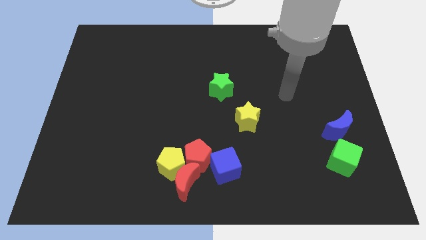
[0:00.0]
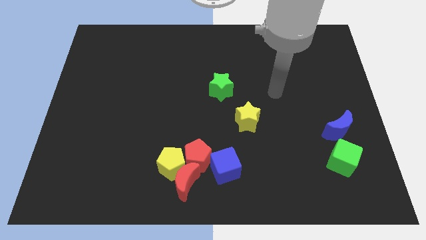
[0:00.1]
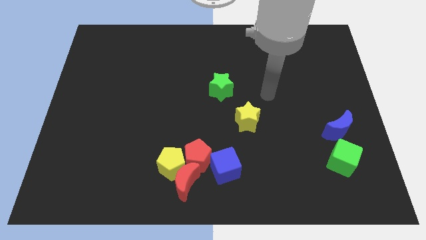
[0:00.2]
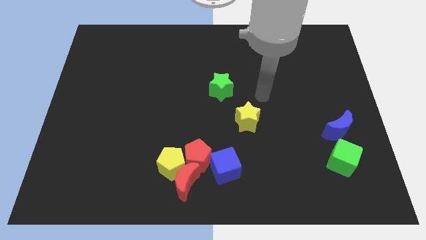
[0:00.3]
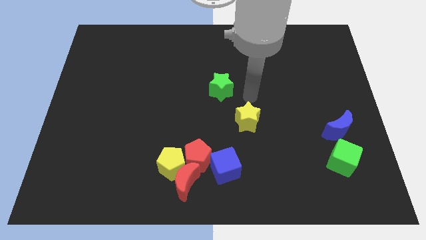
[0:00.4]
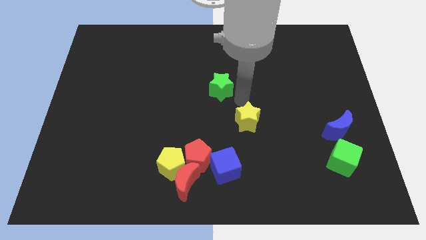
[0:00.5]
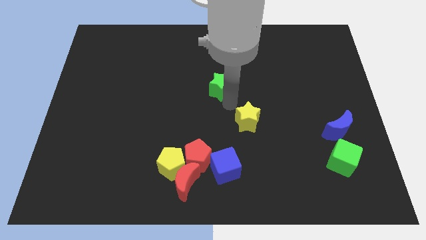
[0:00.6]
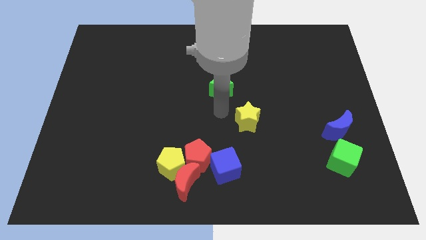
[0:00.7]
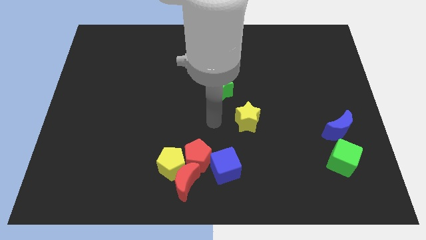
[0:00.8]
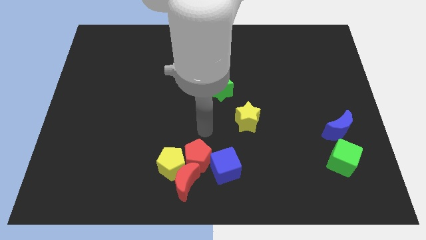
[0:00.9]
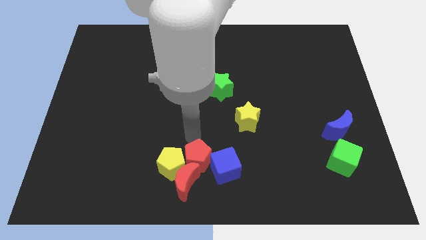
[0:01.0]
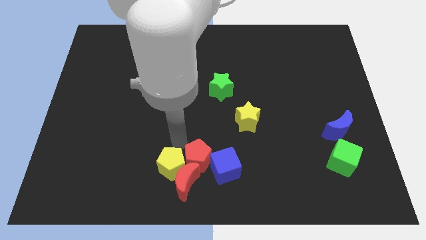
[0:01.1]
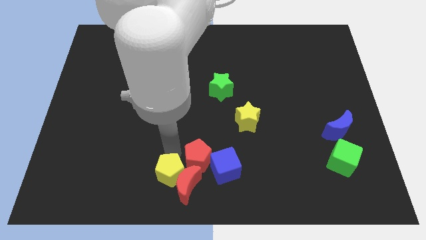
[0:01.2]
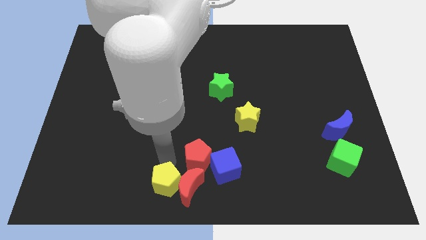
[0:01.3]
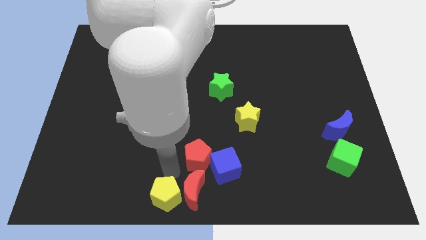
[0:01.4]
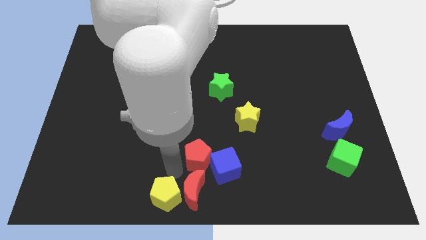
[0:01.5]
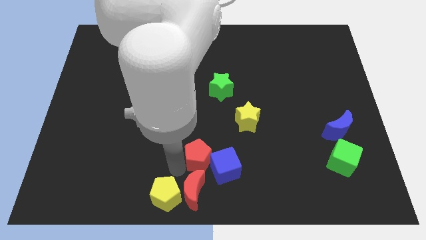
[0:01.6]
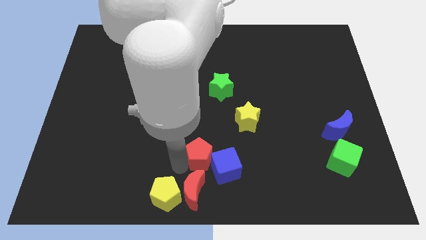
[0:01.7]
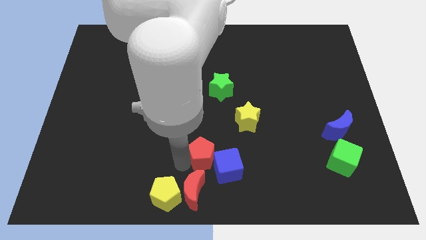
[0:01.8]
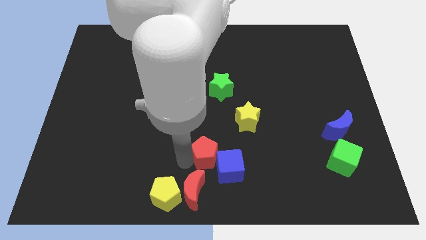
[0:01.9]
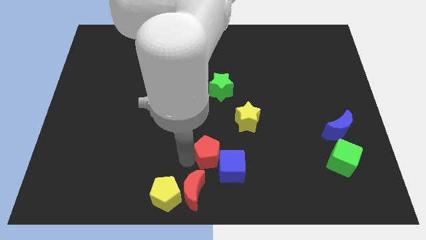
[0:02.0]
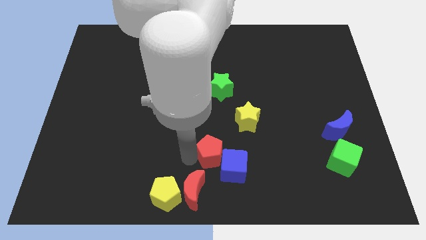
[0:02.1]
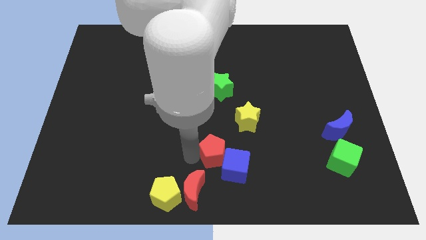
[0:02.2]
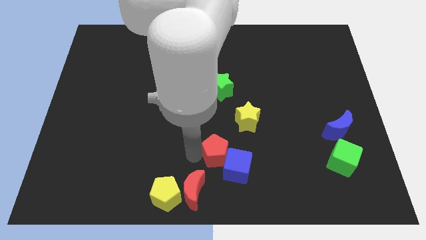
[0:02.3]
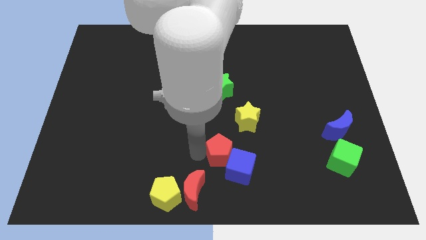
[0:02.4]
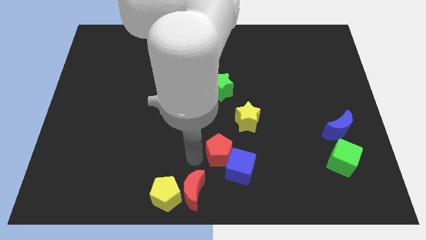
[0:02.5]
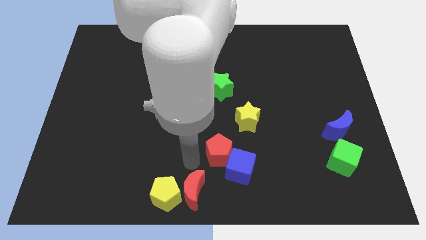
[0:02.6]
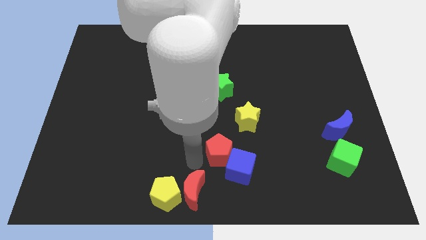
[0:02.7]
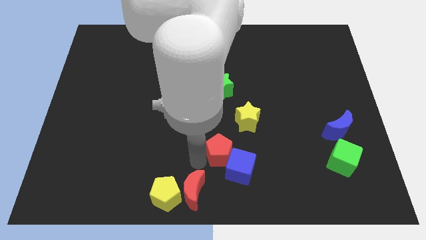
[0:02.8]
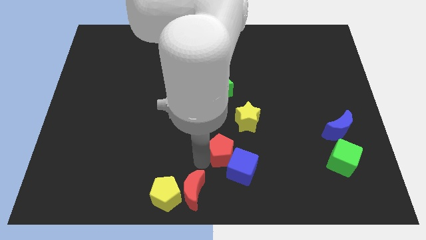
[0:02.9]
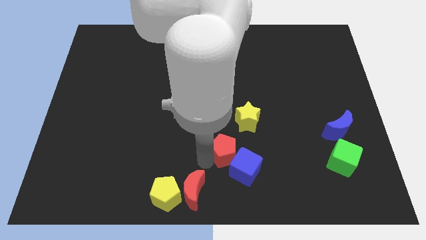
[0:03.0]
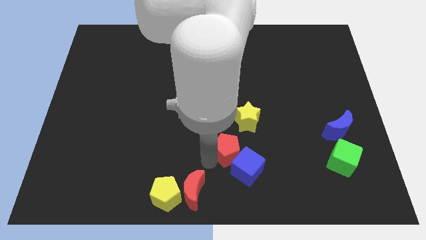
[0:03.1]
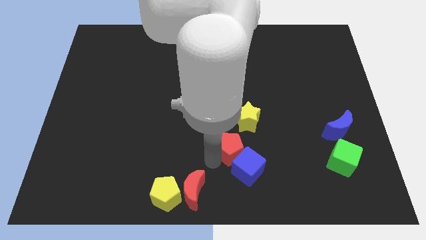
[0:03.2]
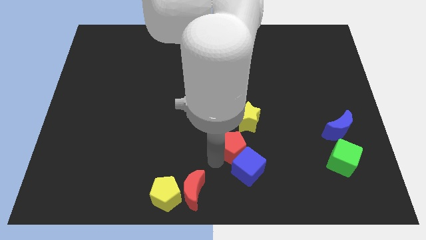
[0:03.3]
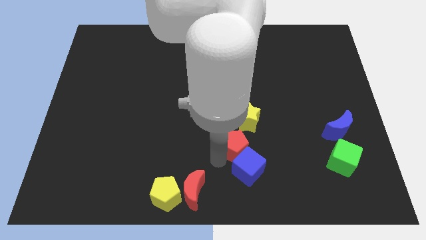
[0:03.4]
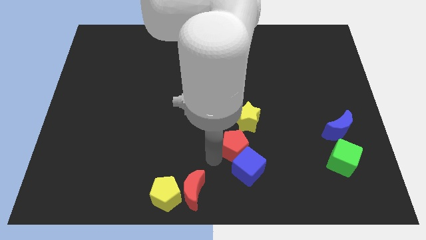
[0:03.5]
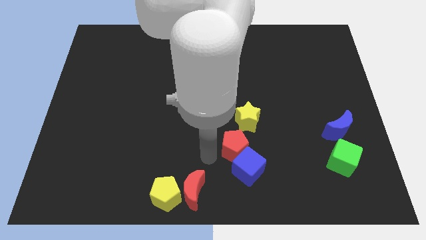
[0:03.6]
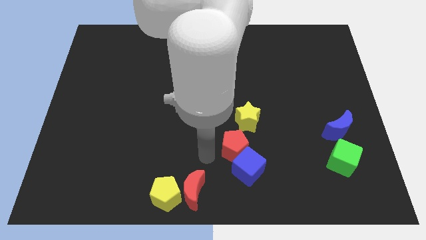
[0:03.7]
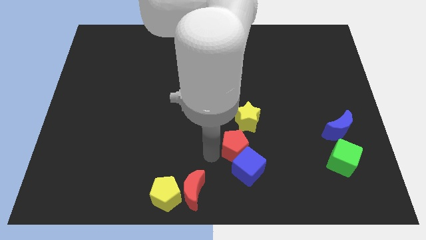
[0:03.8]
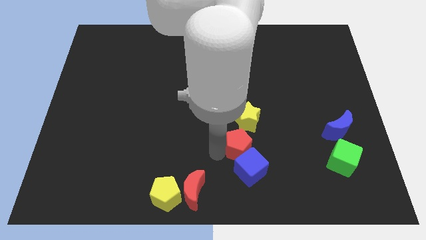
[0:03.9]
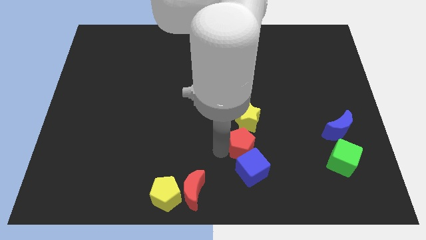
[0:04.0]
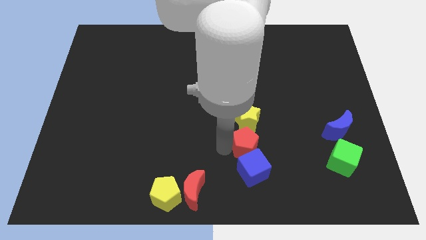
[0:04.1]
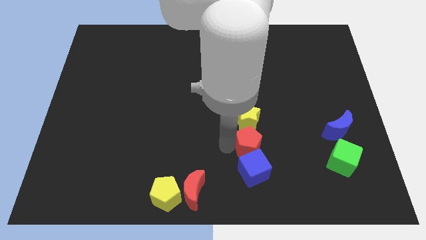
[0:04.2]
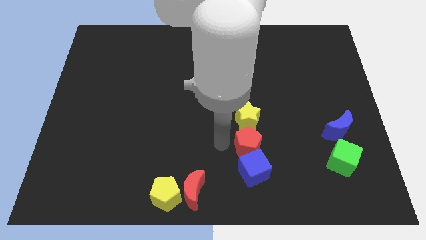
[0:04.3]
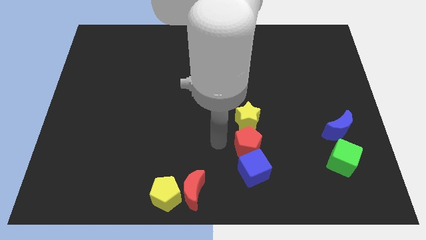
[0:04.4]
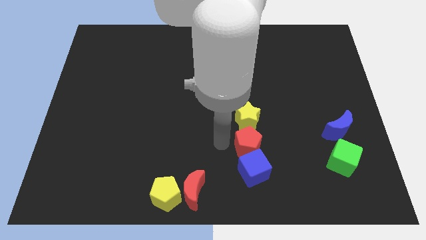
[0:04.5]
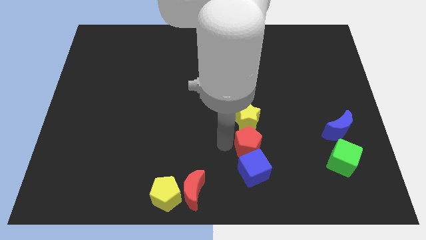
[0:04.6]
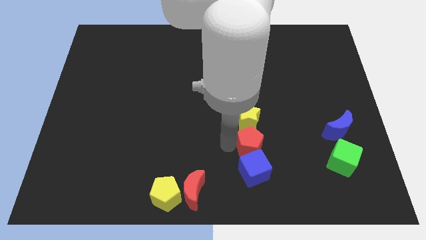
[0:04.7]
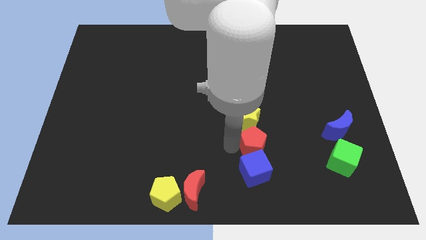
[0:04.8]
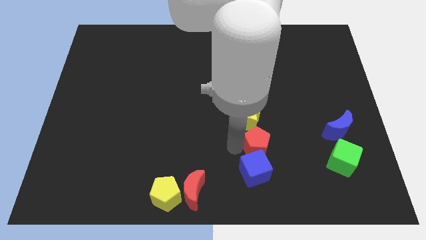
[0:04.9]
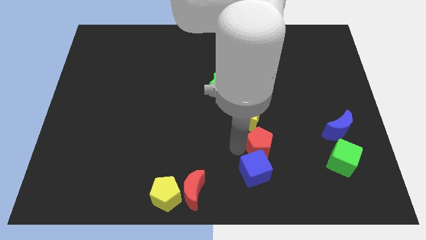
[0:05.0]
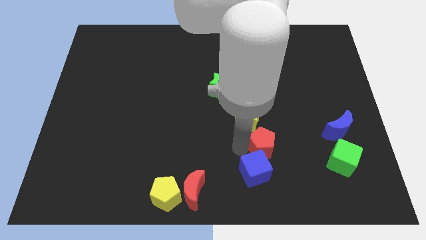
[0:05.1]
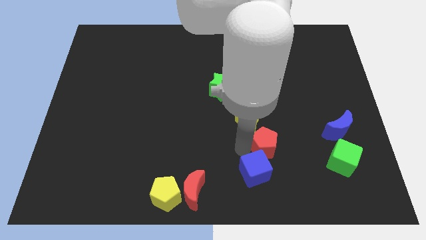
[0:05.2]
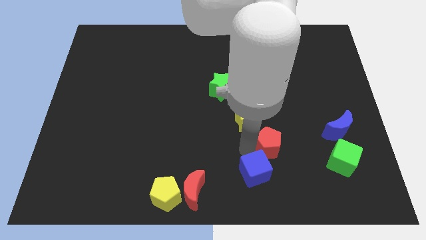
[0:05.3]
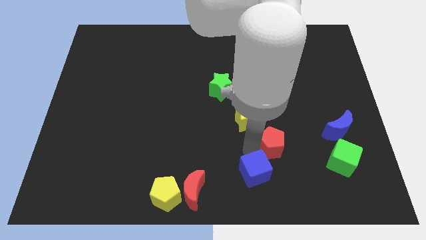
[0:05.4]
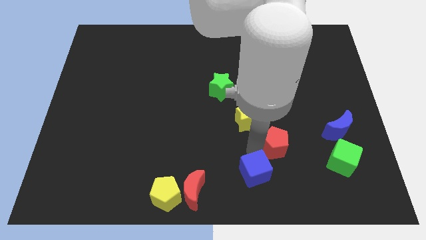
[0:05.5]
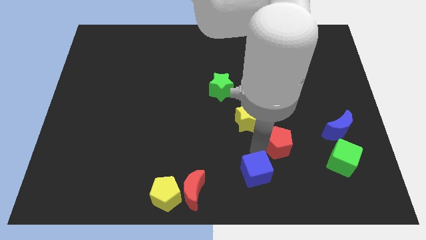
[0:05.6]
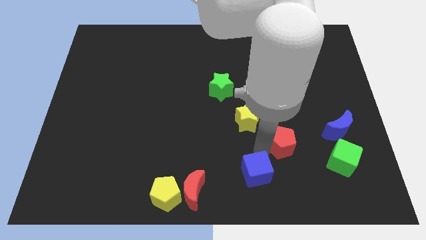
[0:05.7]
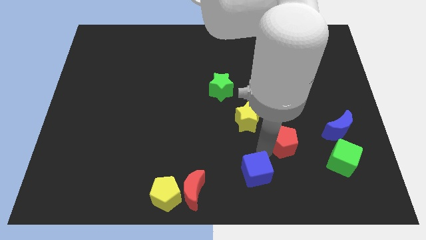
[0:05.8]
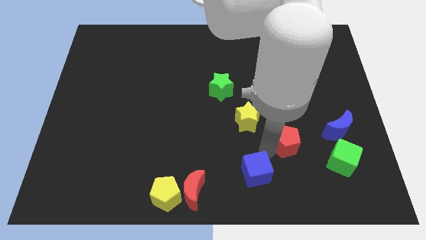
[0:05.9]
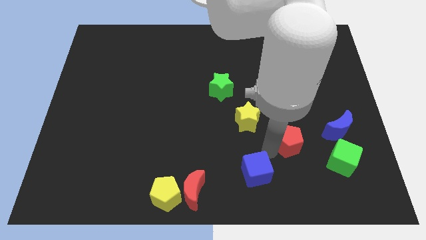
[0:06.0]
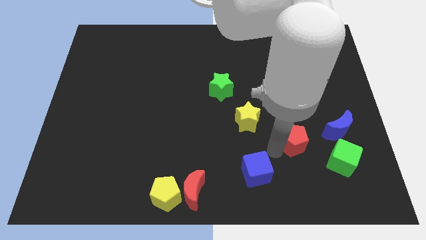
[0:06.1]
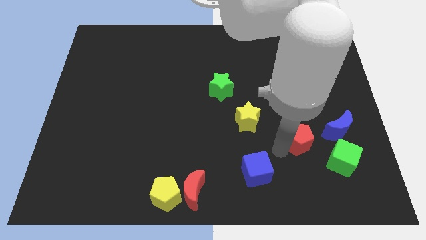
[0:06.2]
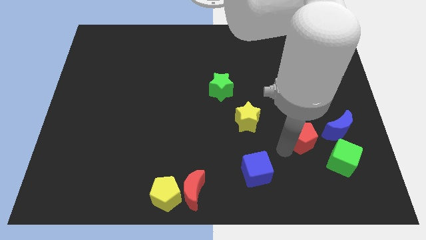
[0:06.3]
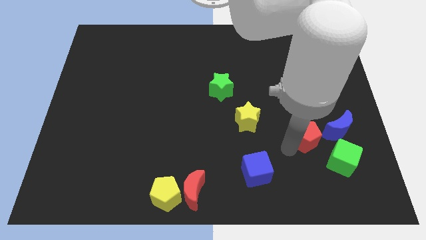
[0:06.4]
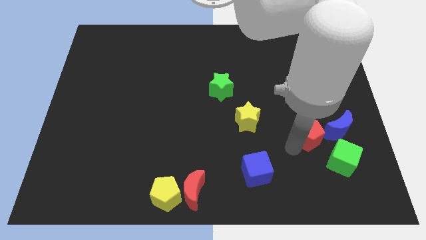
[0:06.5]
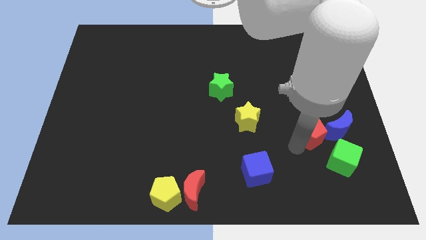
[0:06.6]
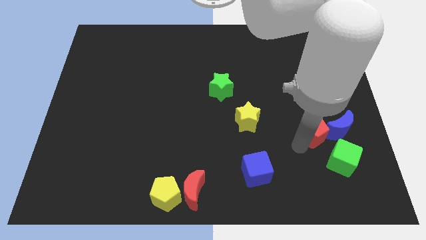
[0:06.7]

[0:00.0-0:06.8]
slide the red pentagon to the blue moon

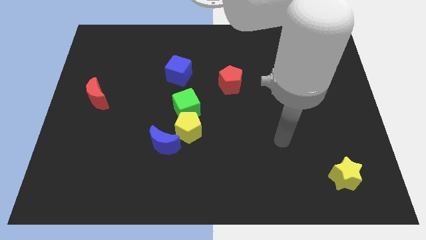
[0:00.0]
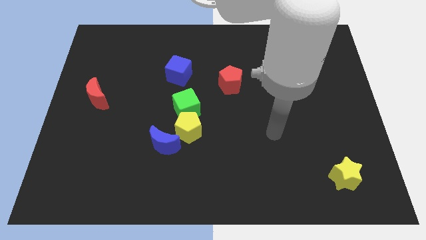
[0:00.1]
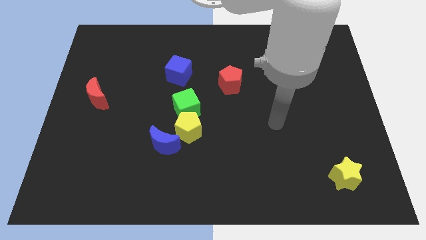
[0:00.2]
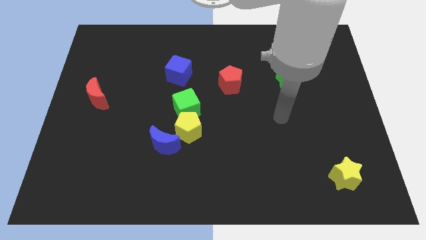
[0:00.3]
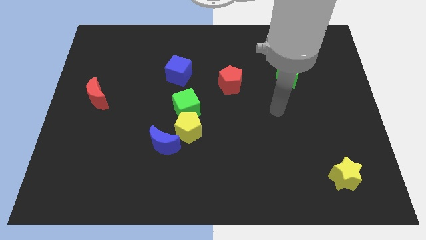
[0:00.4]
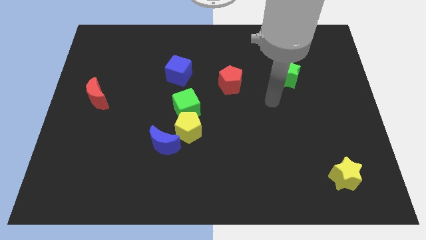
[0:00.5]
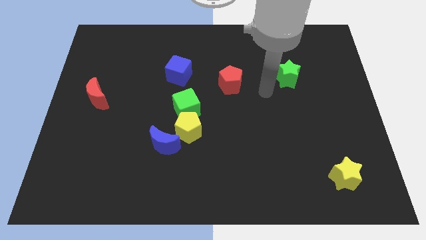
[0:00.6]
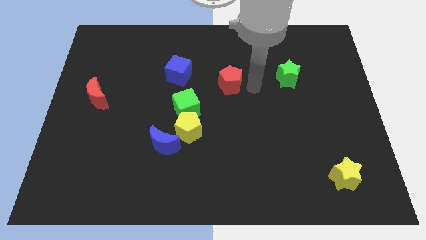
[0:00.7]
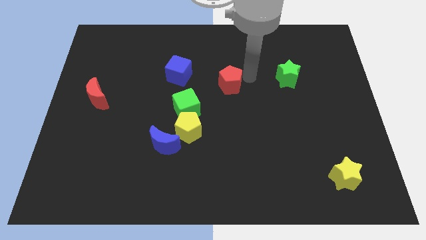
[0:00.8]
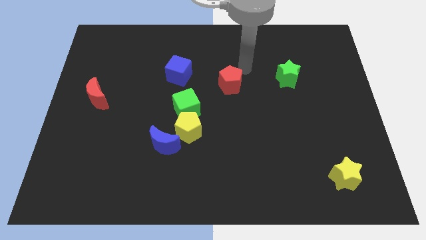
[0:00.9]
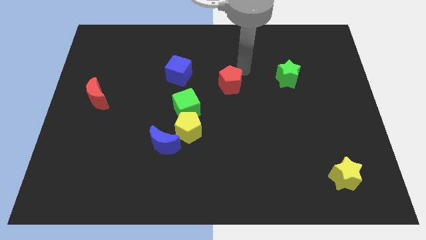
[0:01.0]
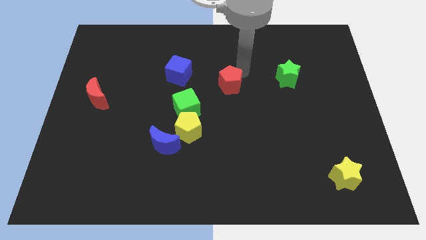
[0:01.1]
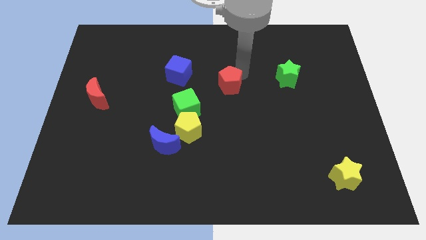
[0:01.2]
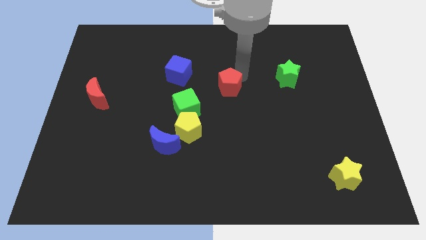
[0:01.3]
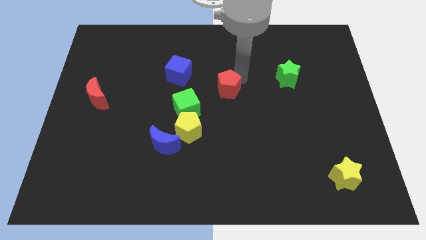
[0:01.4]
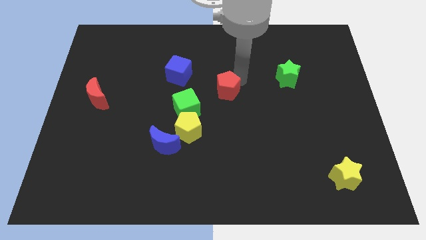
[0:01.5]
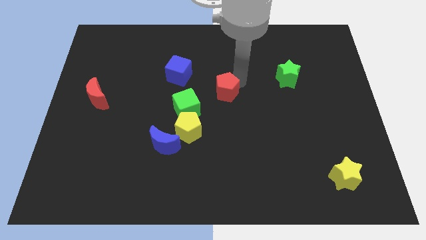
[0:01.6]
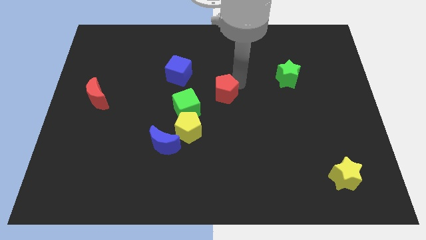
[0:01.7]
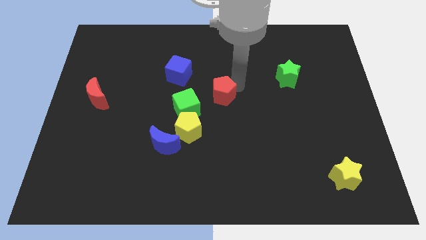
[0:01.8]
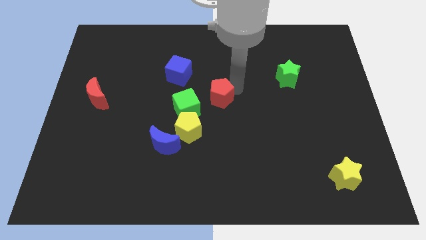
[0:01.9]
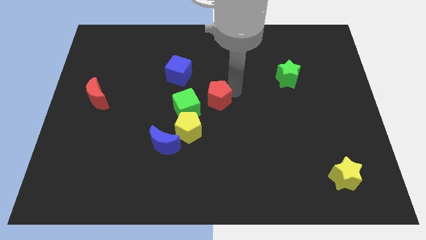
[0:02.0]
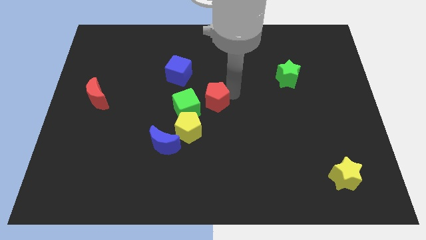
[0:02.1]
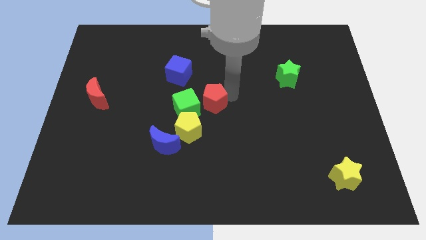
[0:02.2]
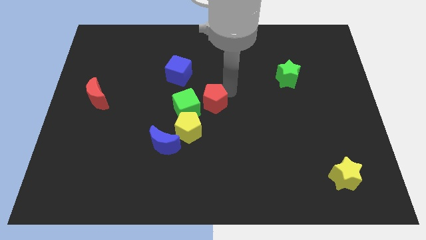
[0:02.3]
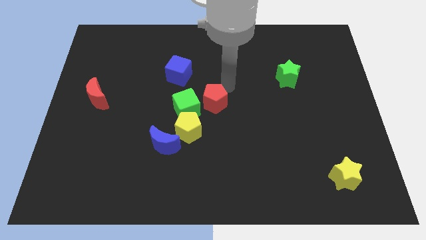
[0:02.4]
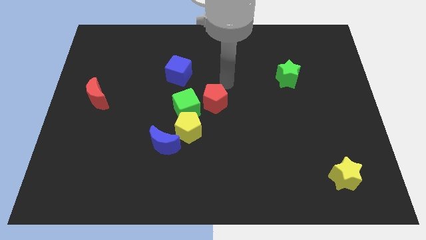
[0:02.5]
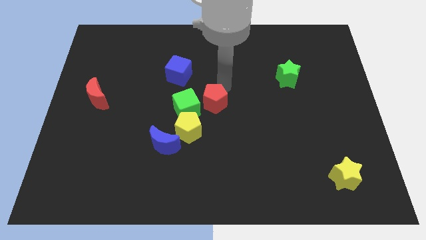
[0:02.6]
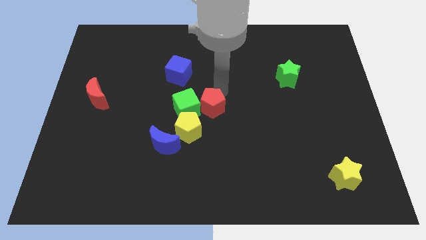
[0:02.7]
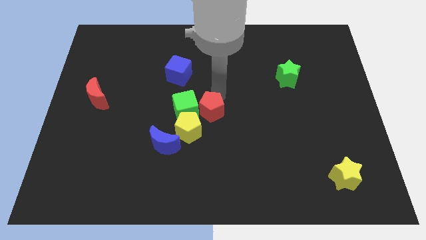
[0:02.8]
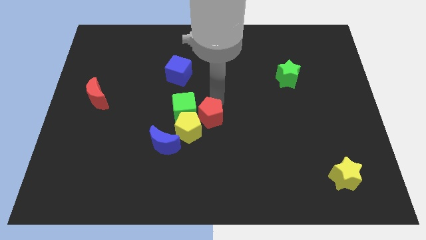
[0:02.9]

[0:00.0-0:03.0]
slide the red pentagon to the yellow pentagon
